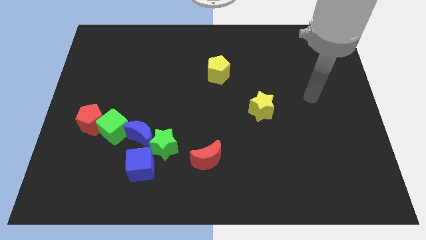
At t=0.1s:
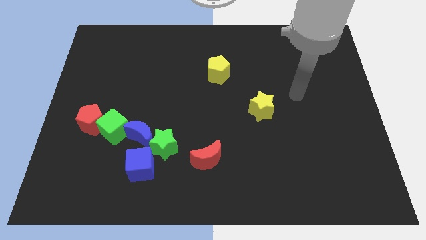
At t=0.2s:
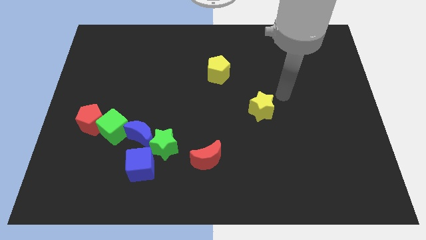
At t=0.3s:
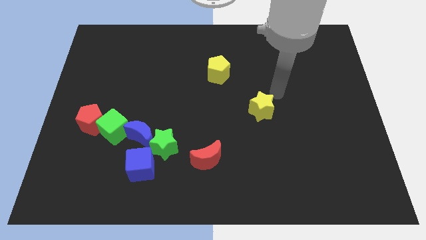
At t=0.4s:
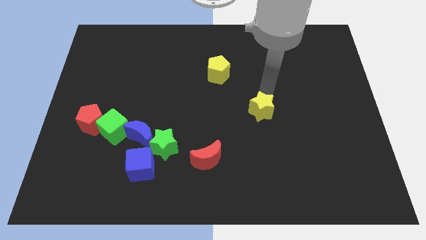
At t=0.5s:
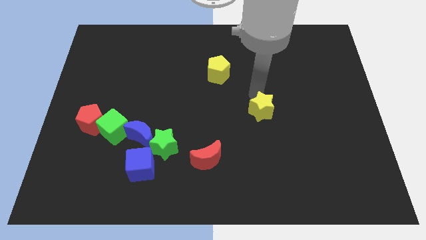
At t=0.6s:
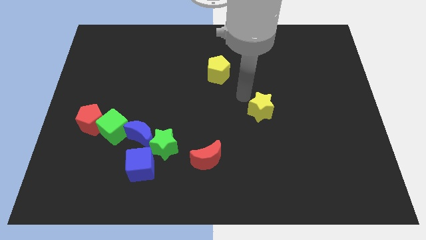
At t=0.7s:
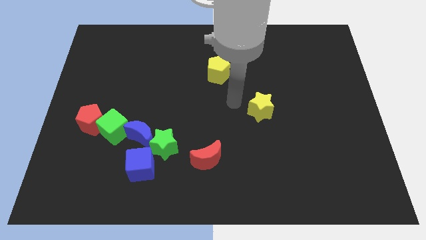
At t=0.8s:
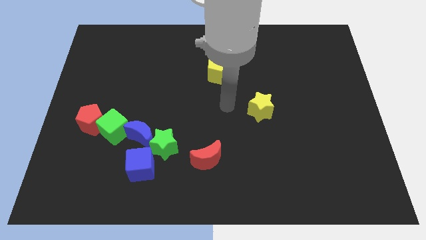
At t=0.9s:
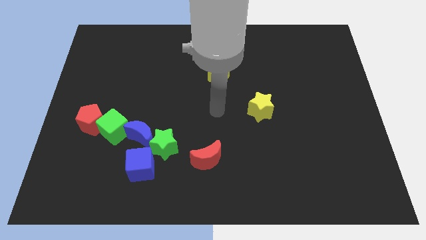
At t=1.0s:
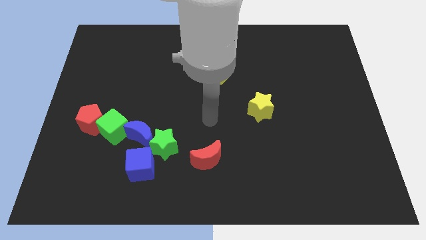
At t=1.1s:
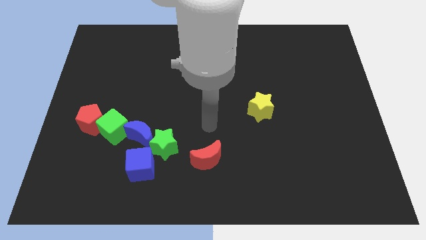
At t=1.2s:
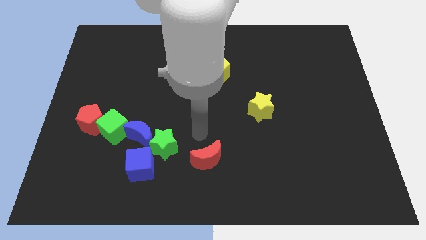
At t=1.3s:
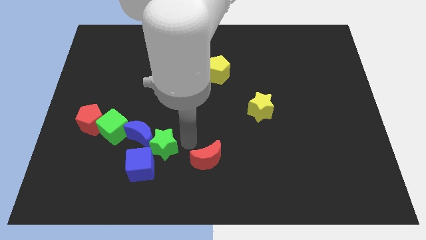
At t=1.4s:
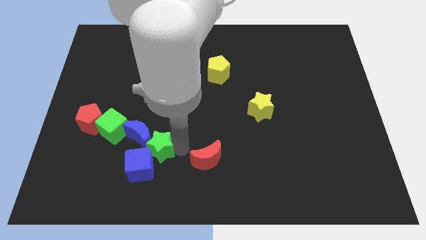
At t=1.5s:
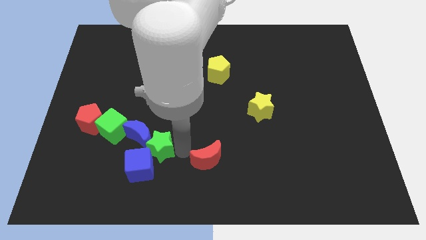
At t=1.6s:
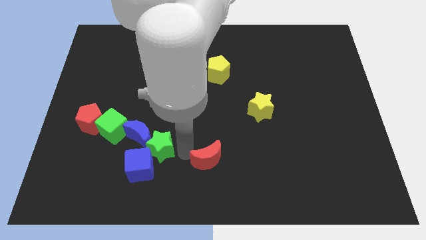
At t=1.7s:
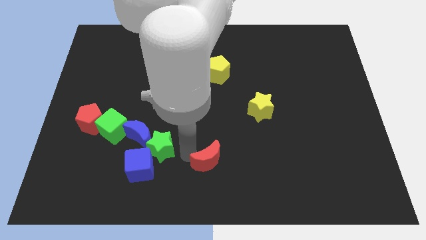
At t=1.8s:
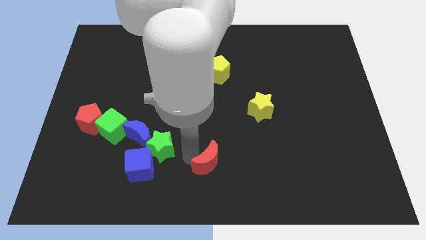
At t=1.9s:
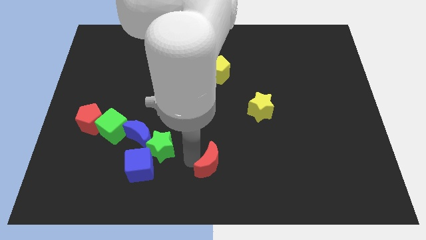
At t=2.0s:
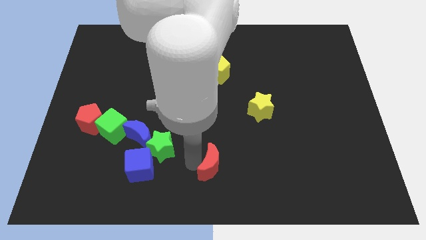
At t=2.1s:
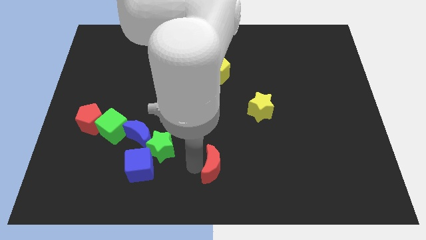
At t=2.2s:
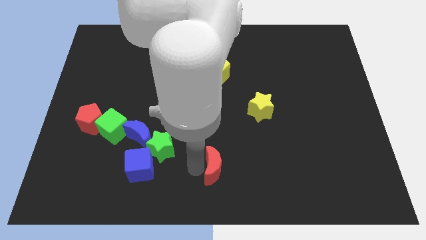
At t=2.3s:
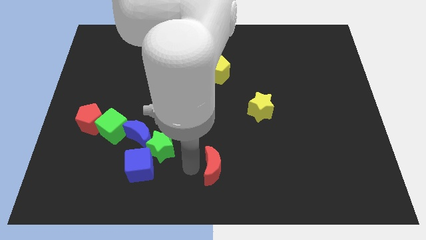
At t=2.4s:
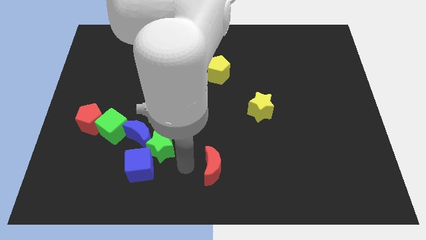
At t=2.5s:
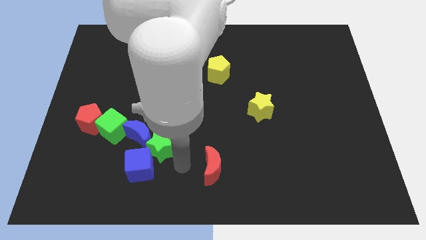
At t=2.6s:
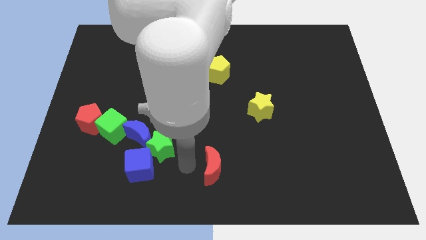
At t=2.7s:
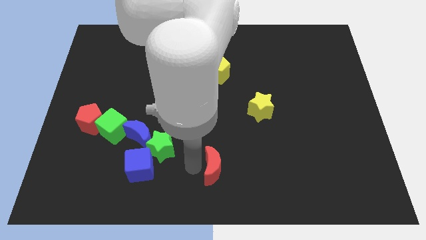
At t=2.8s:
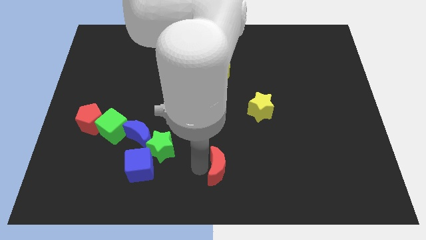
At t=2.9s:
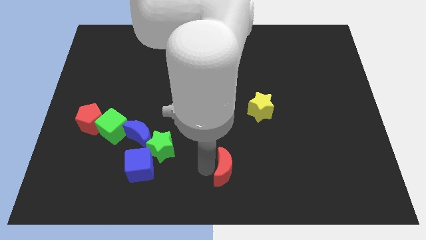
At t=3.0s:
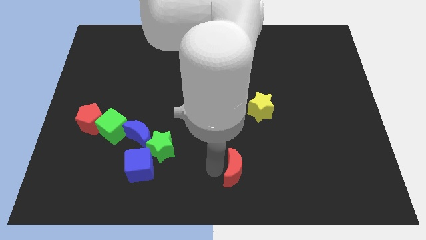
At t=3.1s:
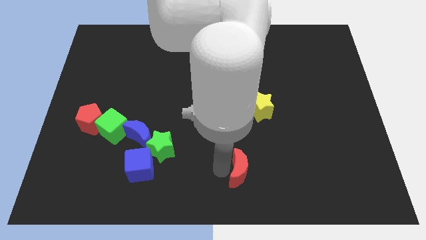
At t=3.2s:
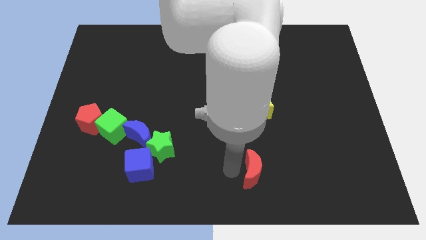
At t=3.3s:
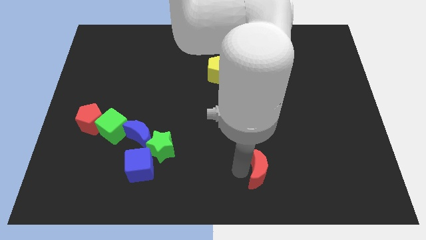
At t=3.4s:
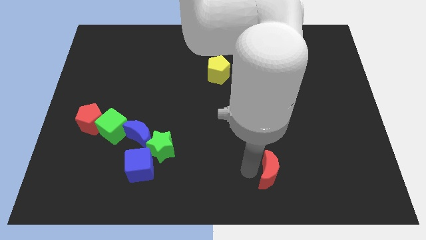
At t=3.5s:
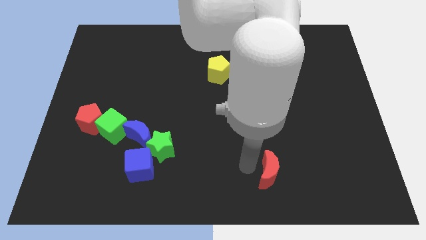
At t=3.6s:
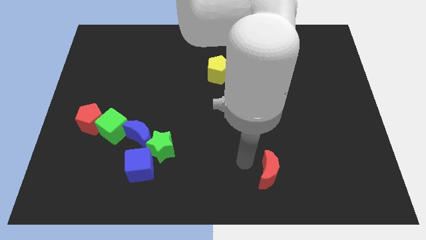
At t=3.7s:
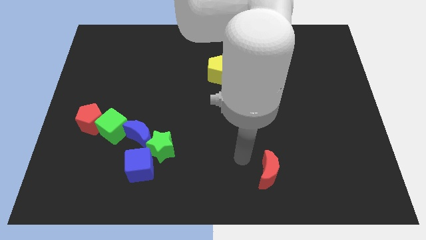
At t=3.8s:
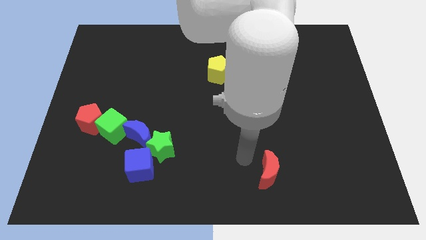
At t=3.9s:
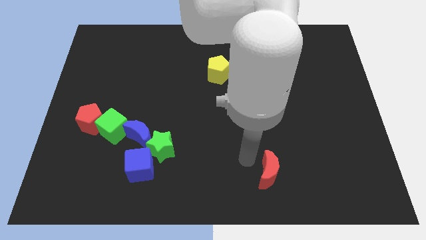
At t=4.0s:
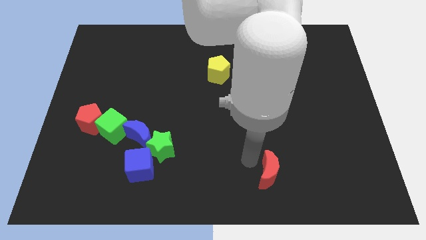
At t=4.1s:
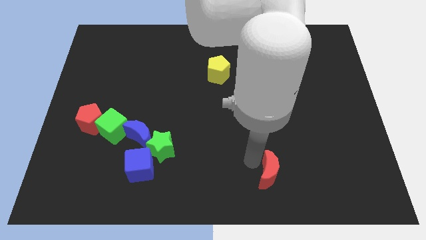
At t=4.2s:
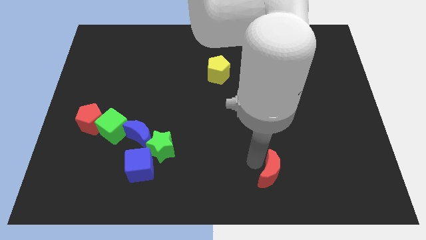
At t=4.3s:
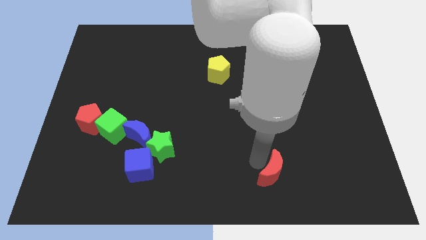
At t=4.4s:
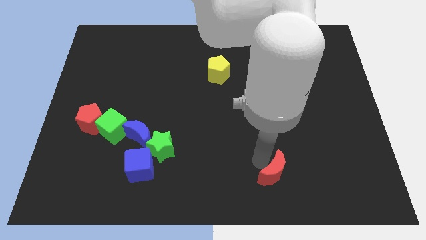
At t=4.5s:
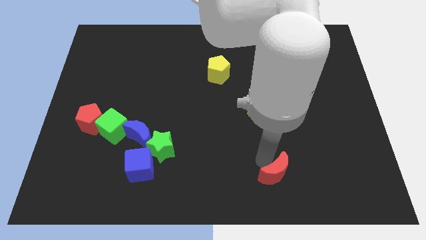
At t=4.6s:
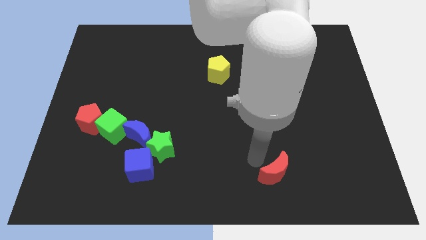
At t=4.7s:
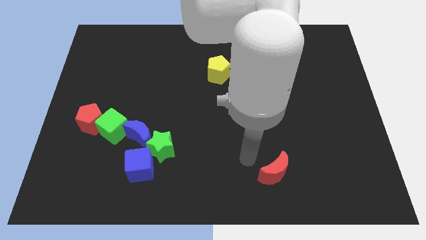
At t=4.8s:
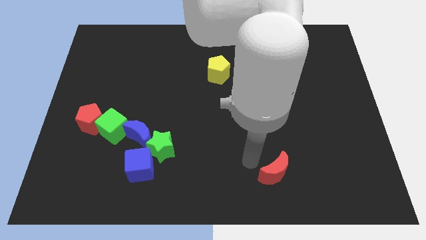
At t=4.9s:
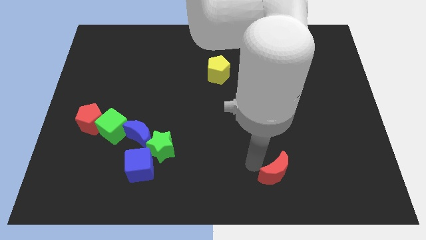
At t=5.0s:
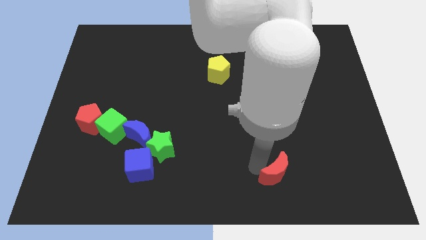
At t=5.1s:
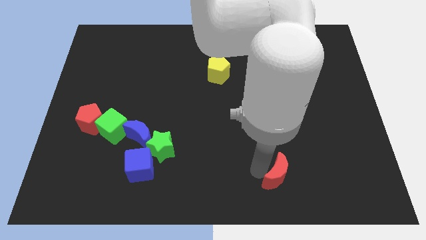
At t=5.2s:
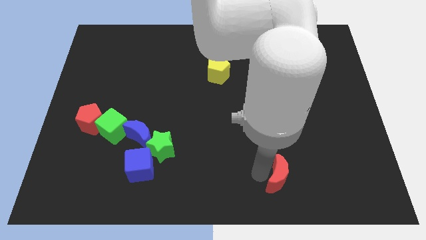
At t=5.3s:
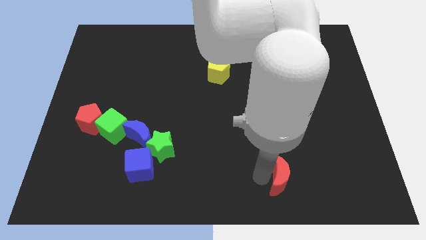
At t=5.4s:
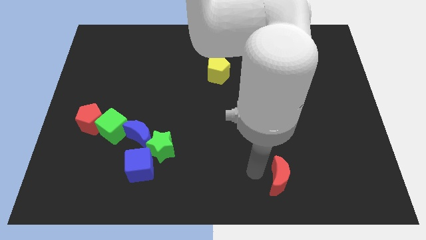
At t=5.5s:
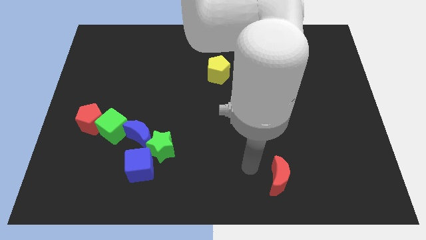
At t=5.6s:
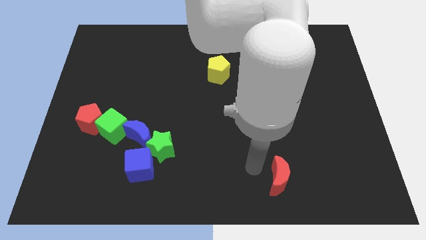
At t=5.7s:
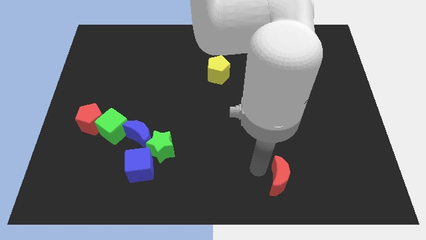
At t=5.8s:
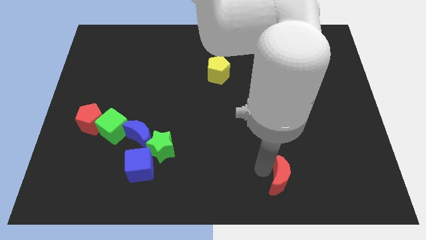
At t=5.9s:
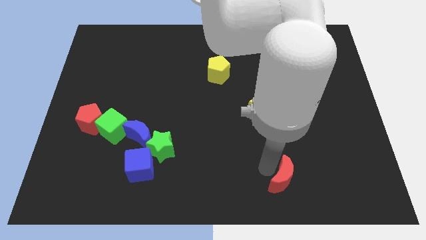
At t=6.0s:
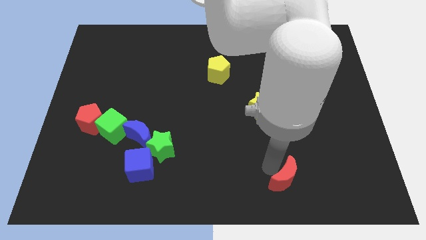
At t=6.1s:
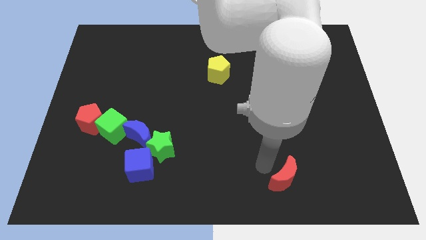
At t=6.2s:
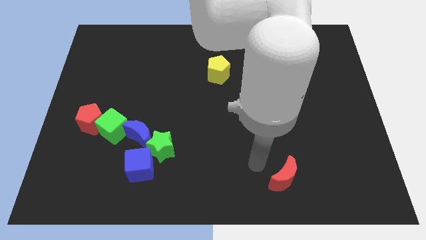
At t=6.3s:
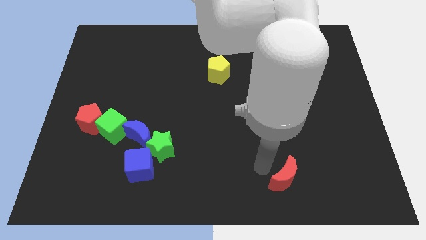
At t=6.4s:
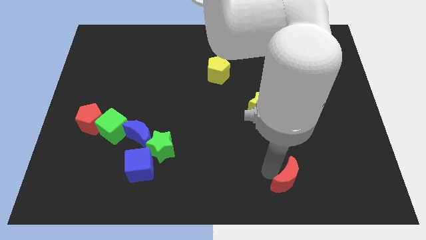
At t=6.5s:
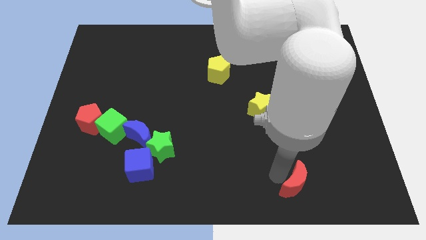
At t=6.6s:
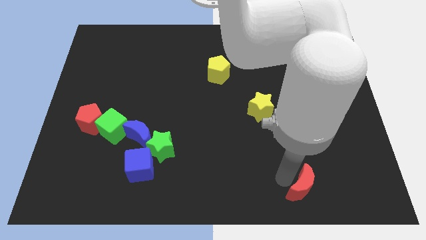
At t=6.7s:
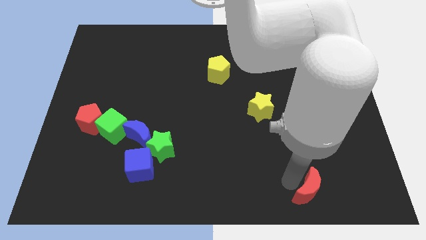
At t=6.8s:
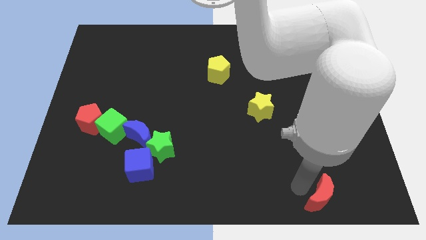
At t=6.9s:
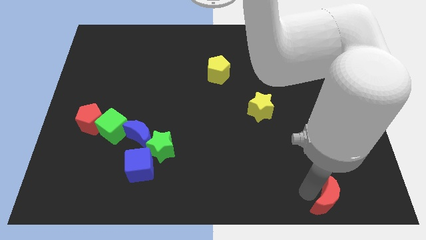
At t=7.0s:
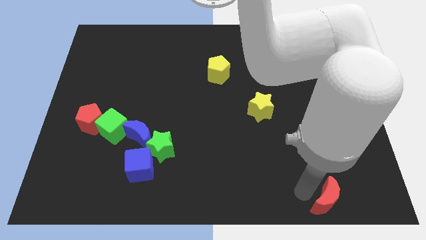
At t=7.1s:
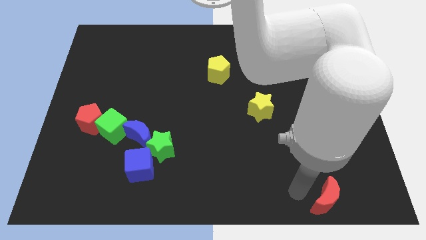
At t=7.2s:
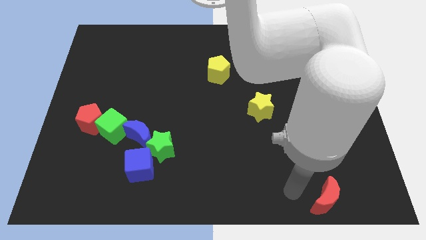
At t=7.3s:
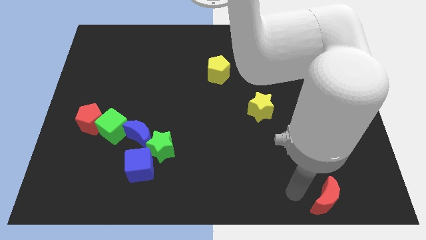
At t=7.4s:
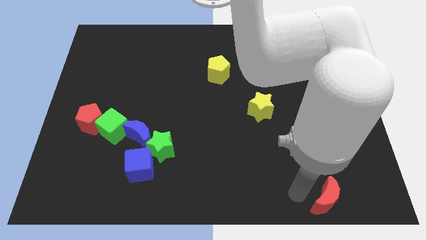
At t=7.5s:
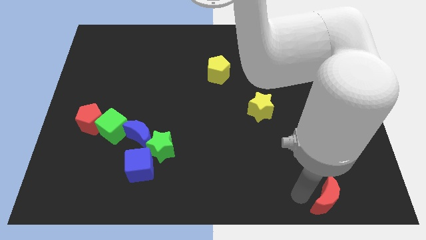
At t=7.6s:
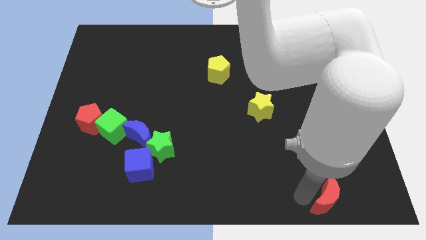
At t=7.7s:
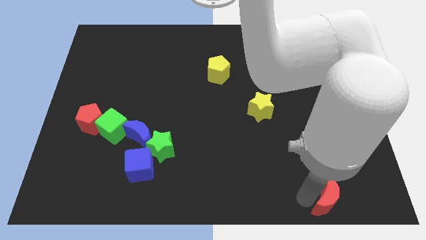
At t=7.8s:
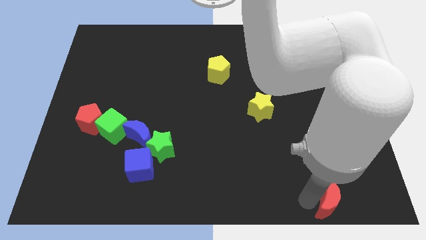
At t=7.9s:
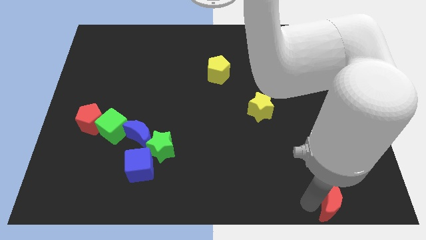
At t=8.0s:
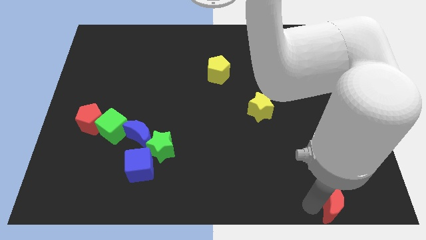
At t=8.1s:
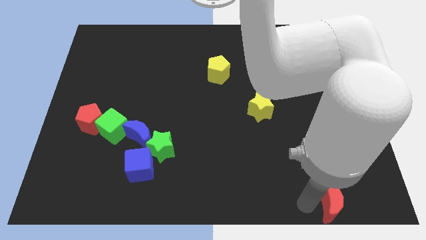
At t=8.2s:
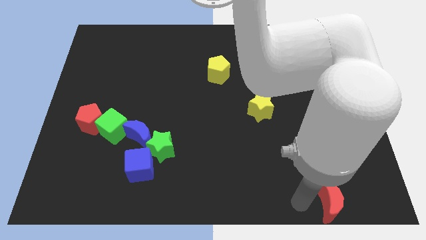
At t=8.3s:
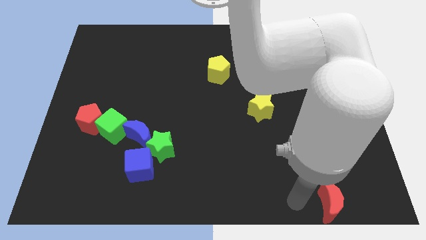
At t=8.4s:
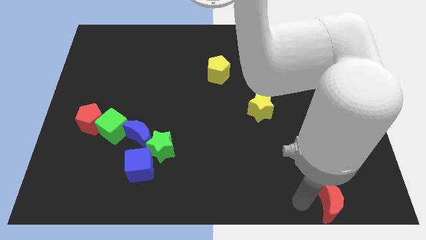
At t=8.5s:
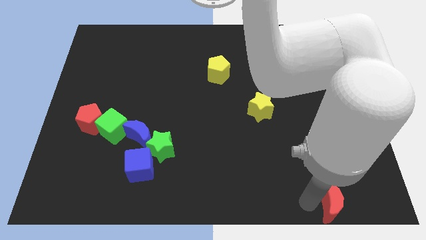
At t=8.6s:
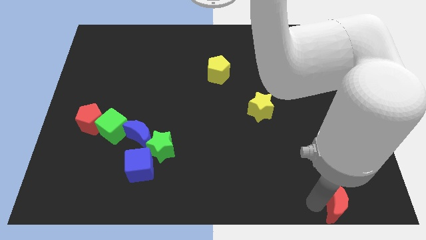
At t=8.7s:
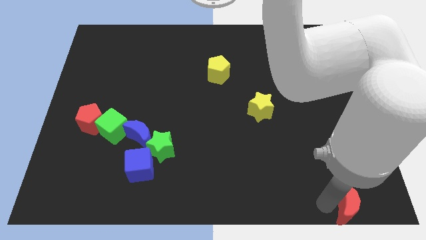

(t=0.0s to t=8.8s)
move the red moon to the bottom right
